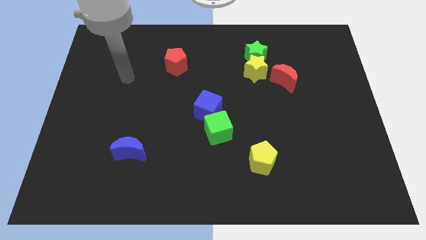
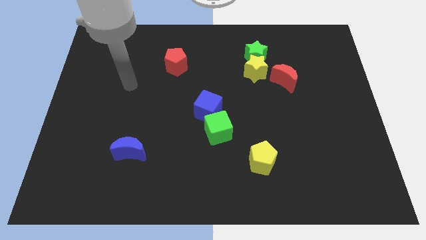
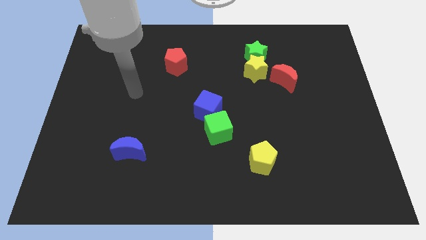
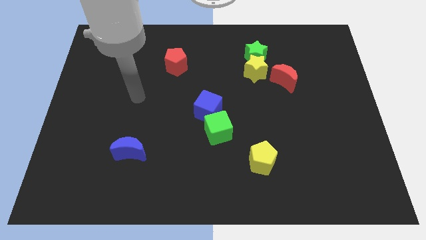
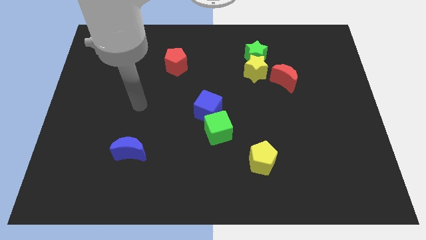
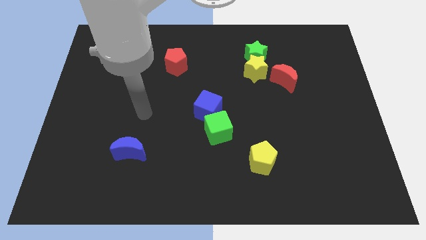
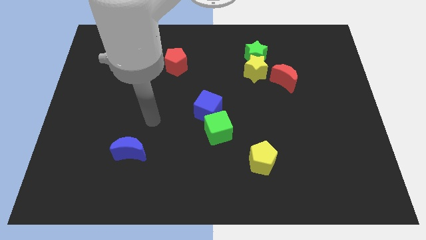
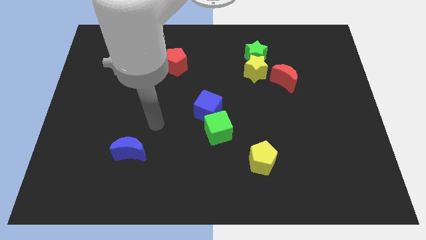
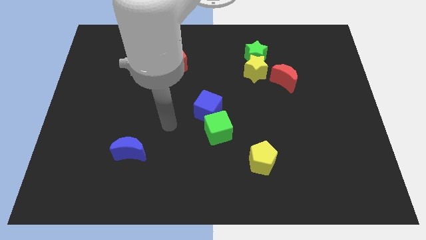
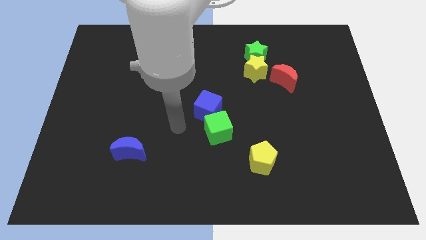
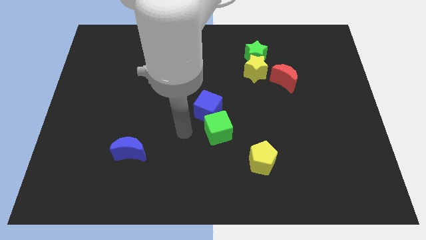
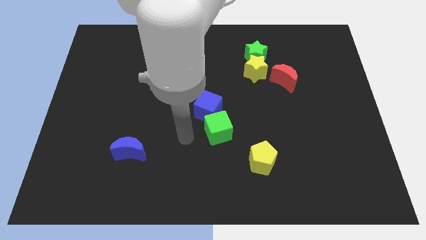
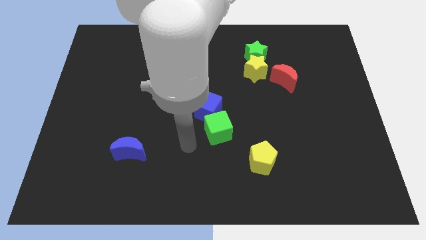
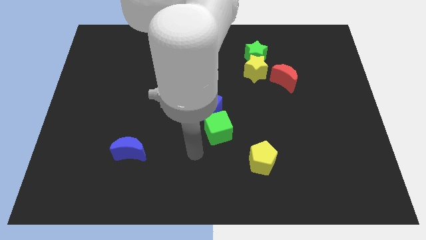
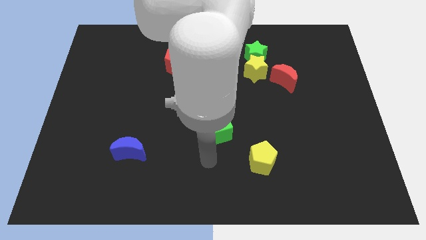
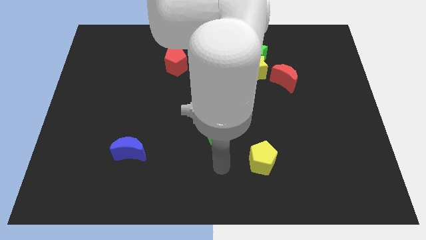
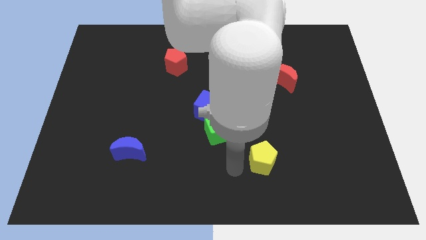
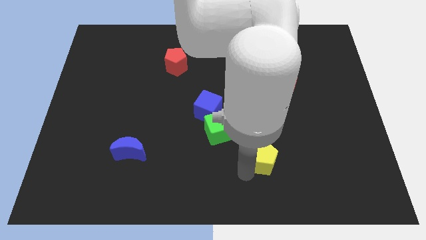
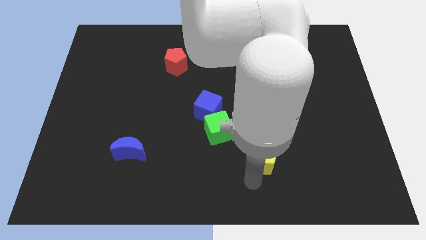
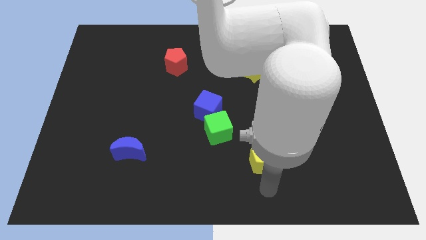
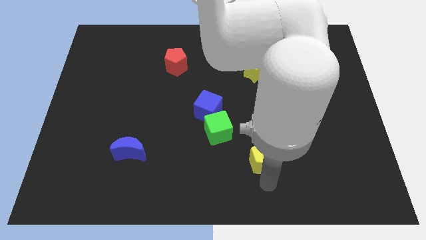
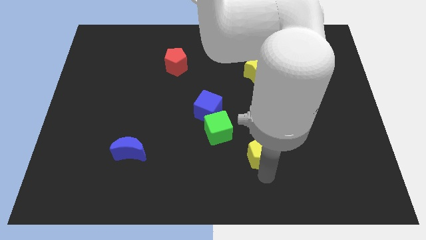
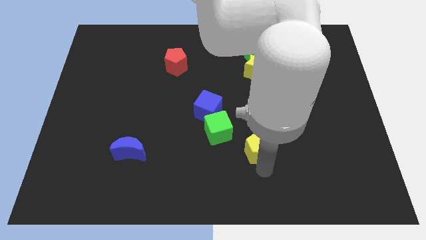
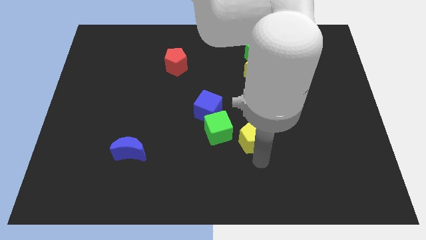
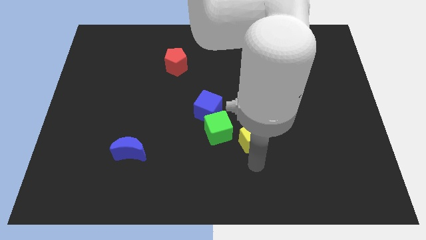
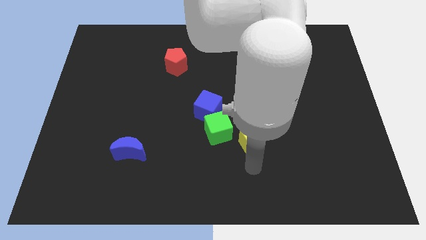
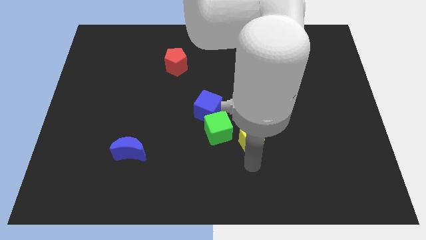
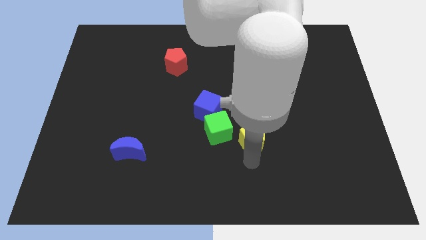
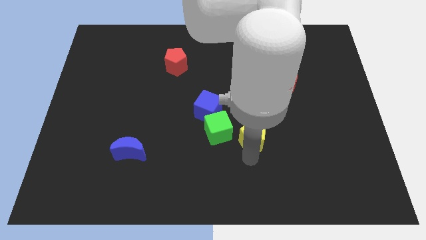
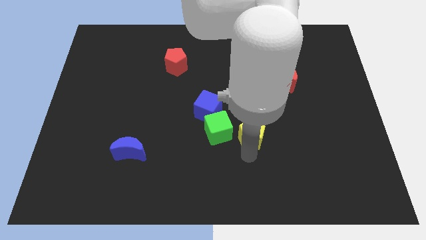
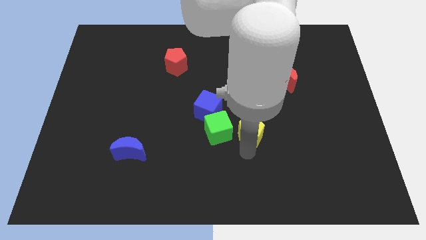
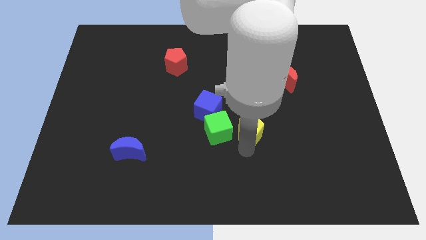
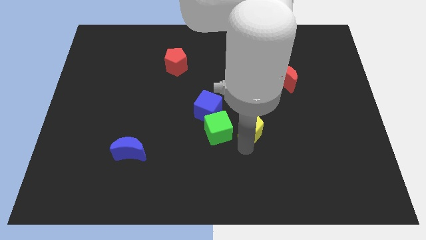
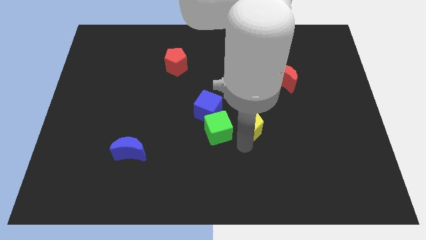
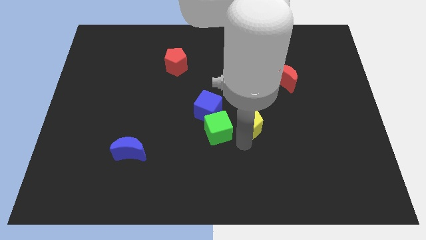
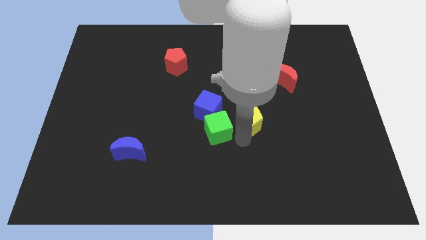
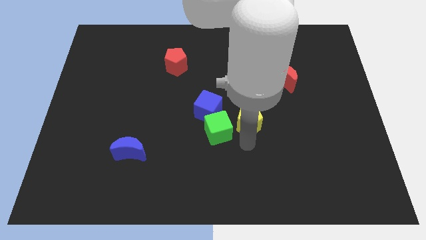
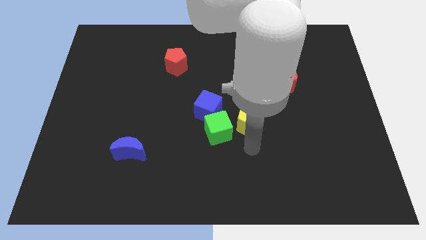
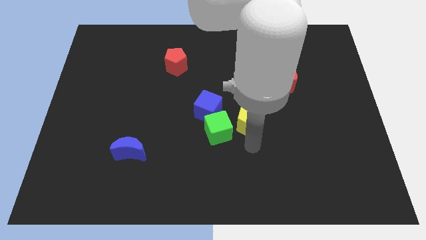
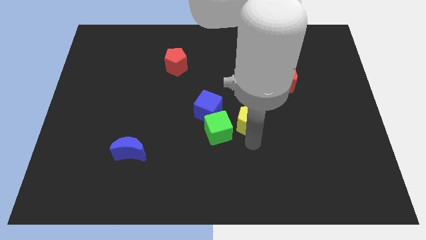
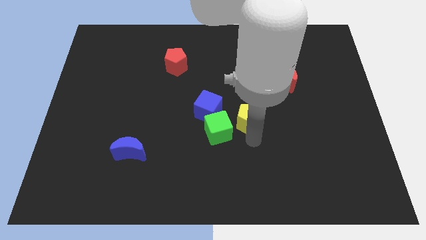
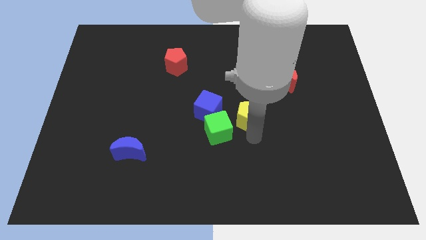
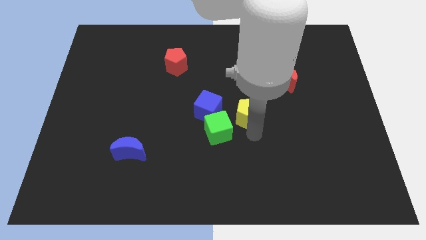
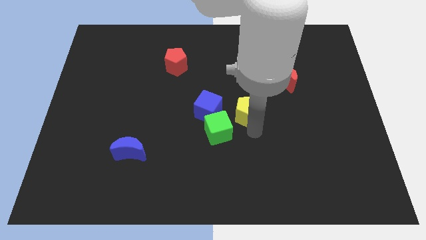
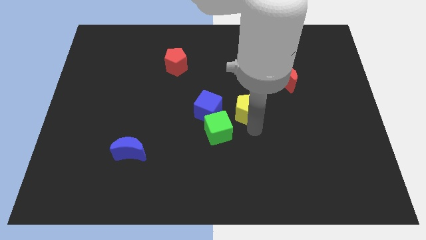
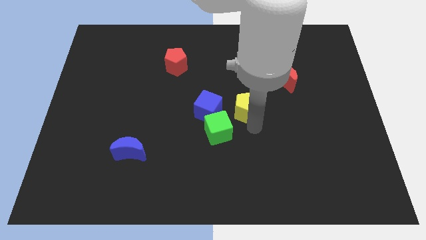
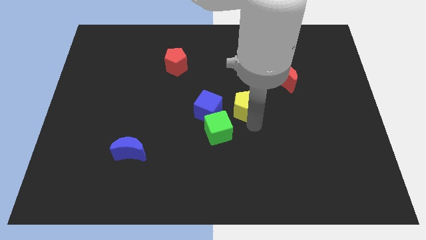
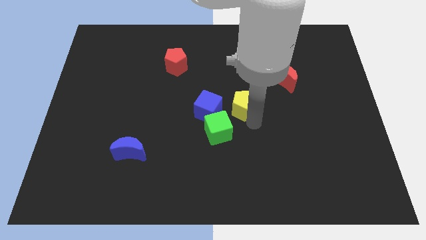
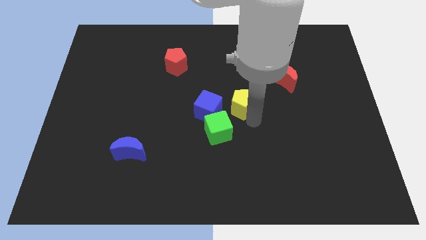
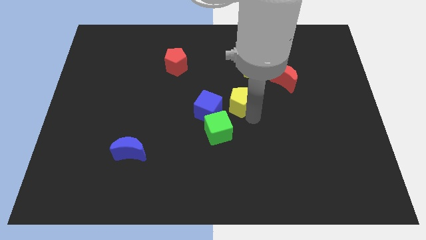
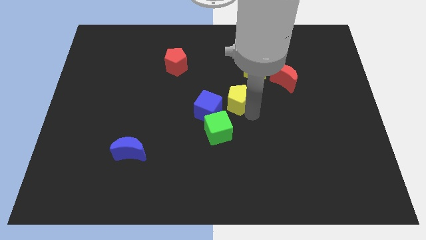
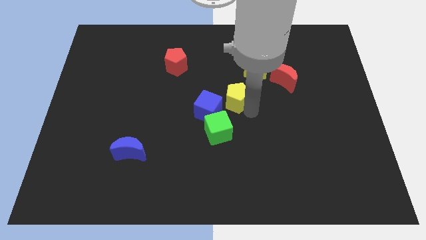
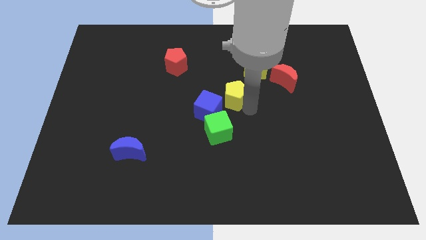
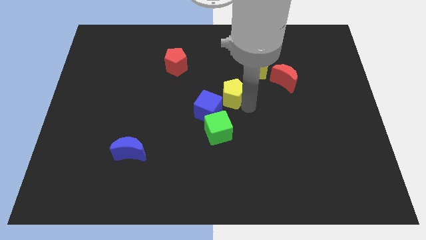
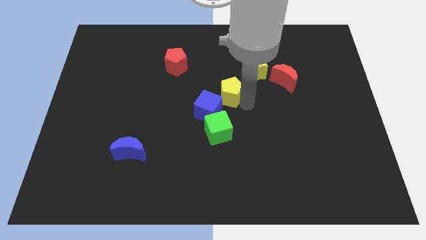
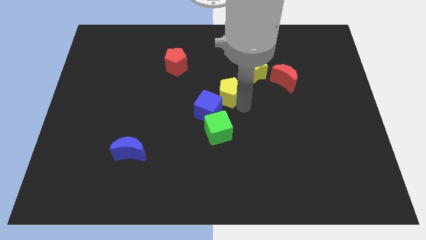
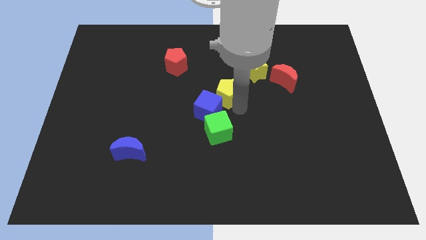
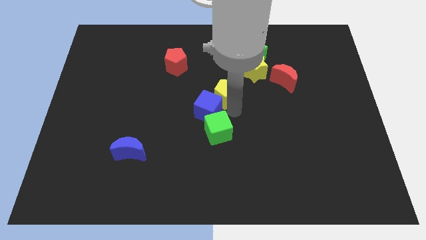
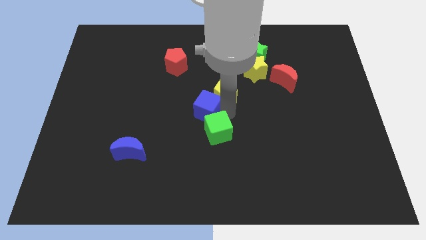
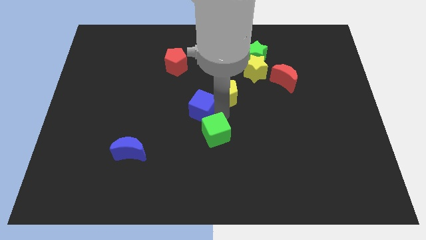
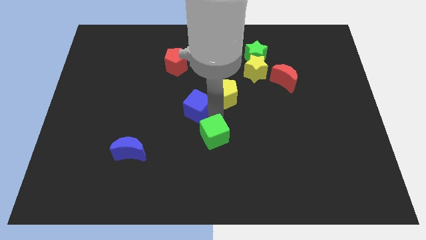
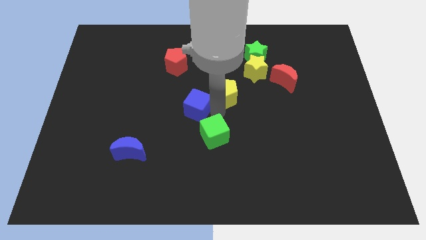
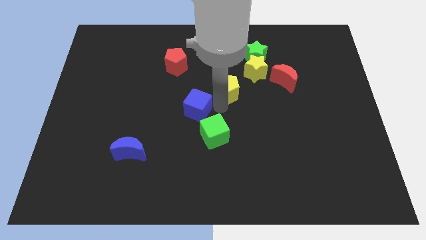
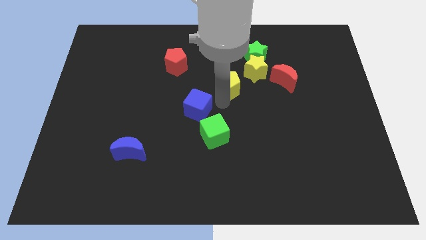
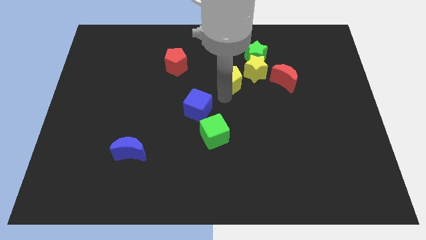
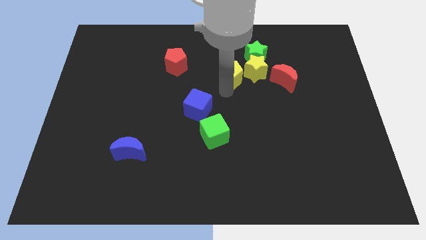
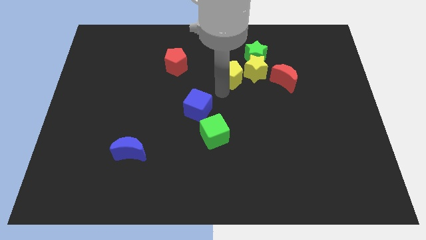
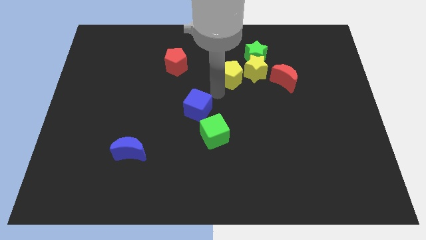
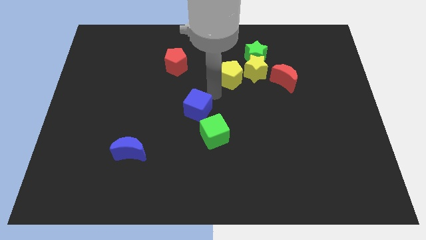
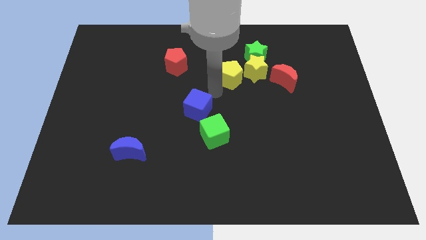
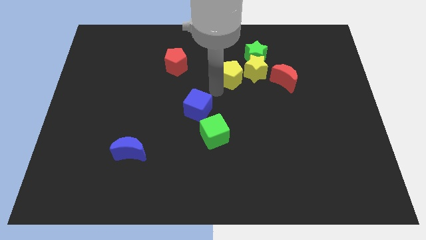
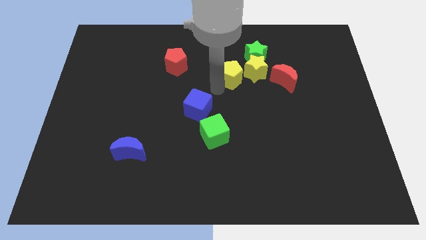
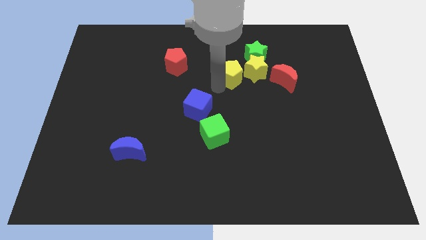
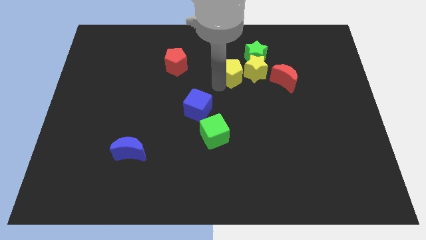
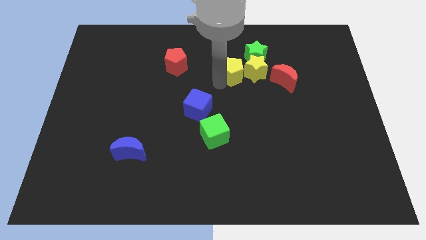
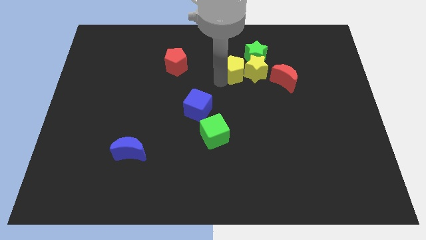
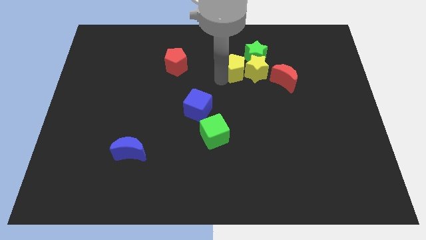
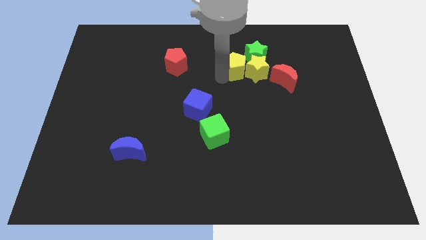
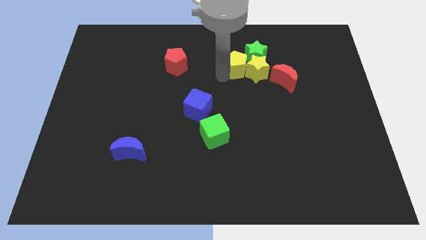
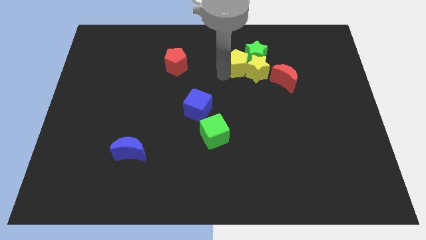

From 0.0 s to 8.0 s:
push the yellow pentagon close to the green star

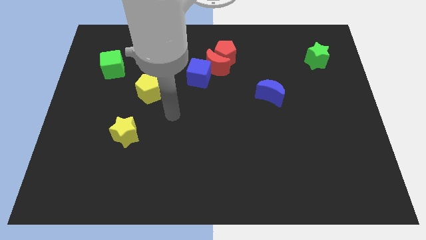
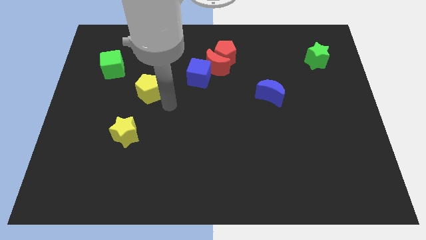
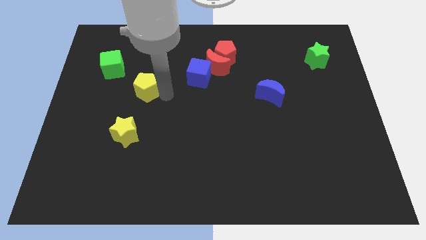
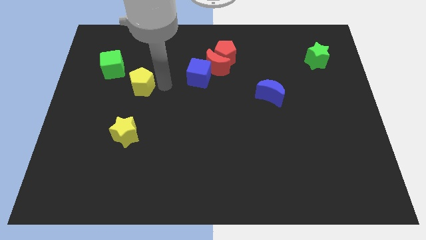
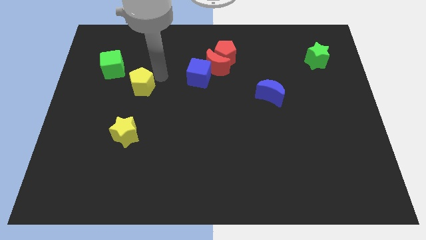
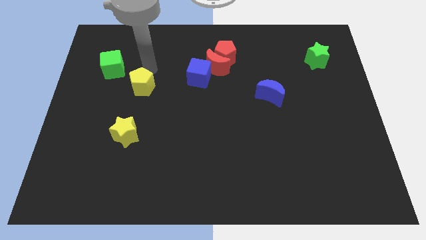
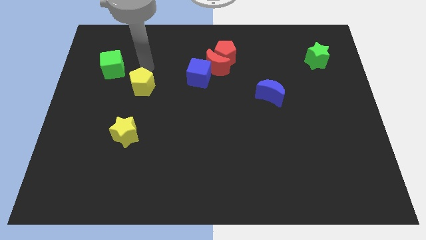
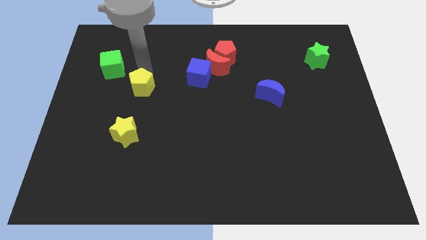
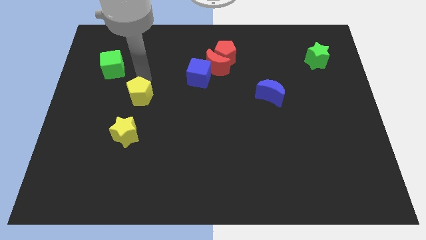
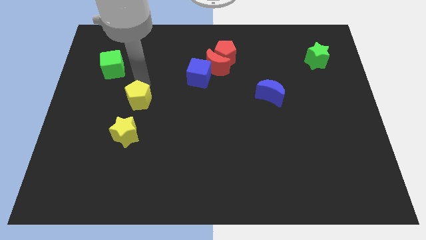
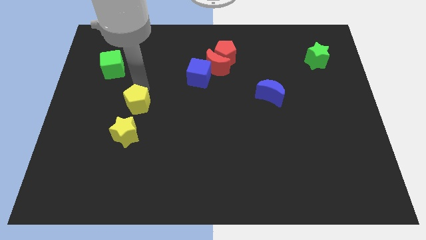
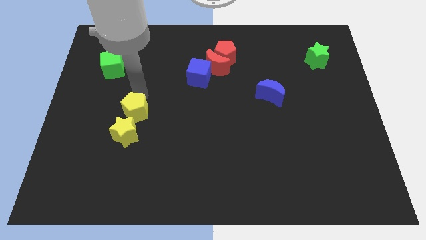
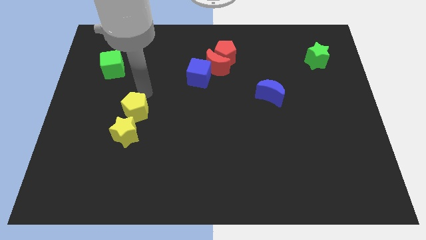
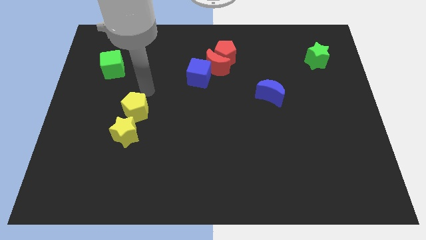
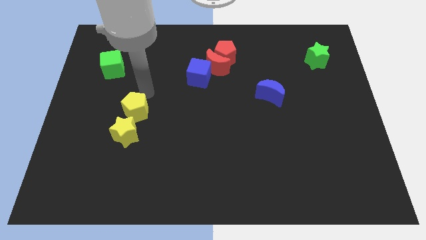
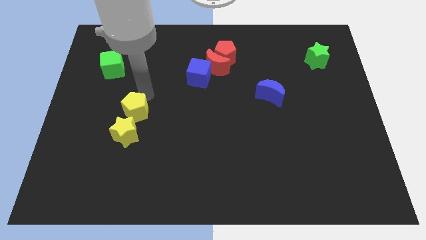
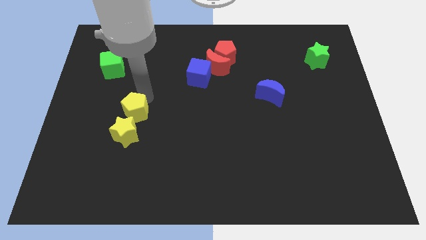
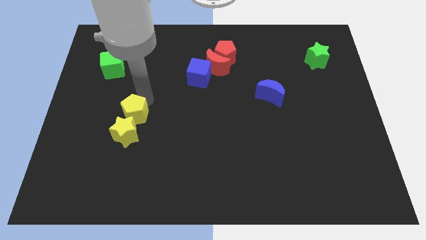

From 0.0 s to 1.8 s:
push the yellow pentagon close to the yellow star
